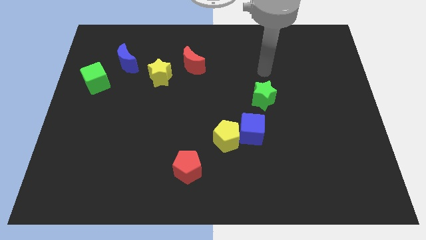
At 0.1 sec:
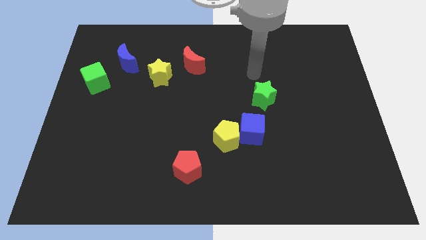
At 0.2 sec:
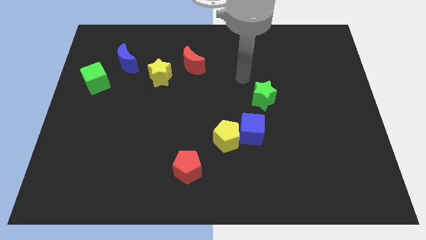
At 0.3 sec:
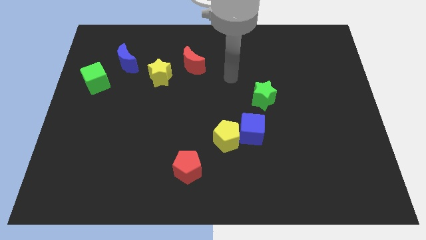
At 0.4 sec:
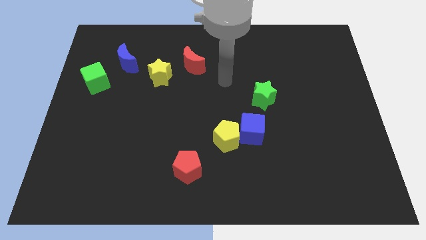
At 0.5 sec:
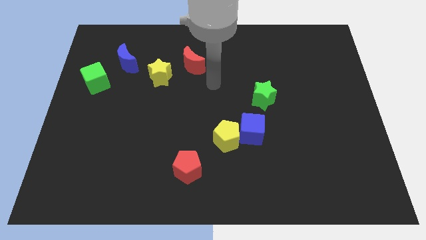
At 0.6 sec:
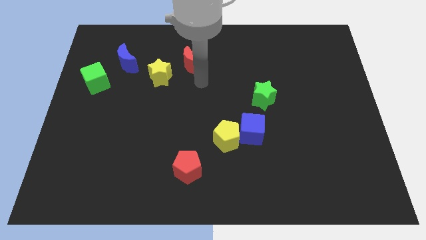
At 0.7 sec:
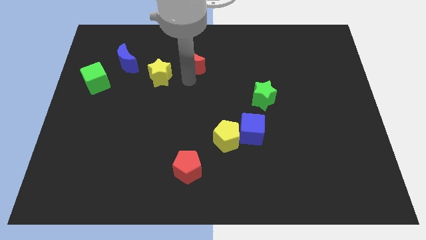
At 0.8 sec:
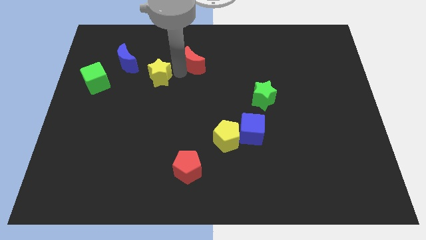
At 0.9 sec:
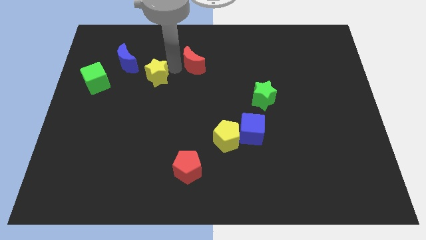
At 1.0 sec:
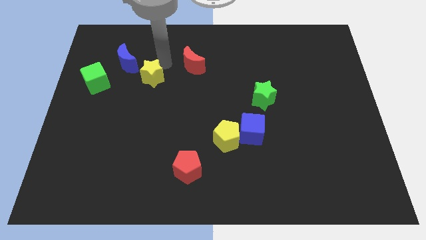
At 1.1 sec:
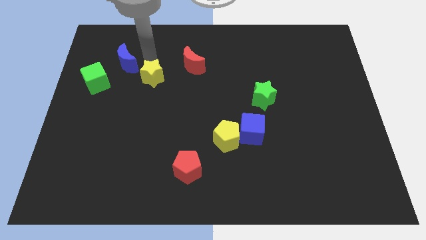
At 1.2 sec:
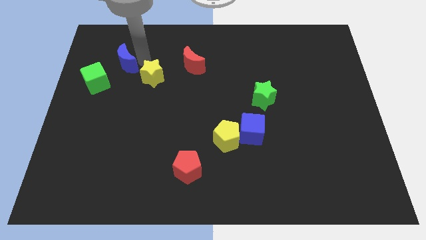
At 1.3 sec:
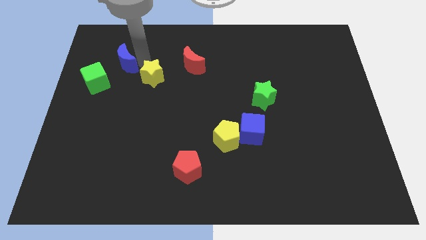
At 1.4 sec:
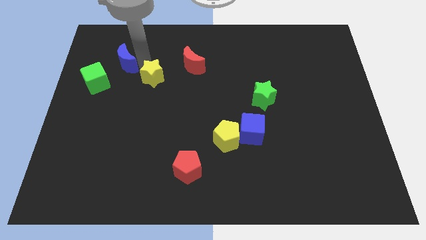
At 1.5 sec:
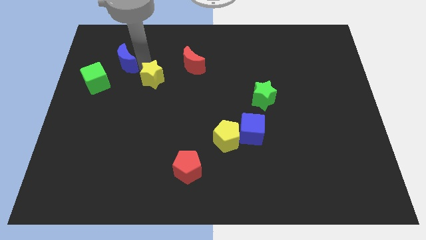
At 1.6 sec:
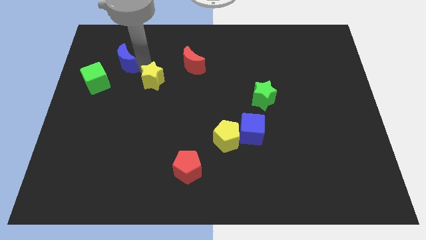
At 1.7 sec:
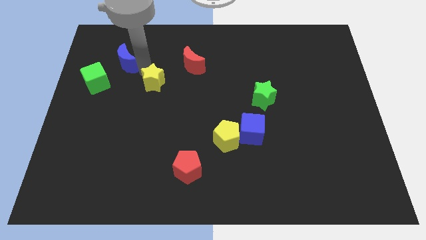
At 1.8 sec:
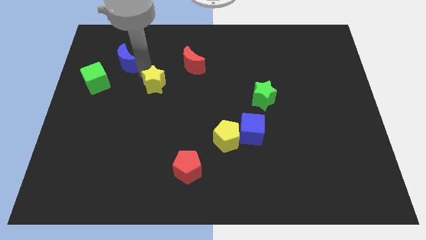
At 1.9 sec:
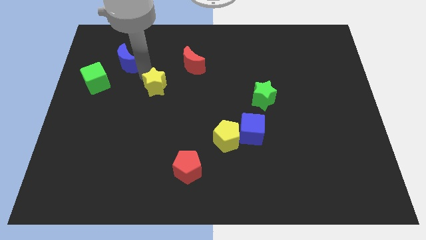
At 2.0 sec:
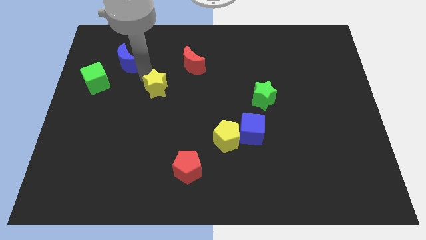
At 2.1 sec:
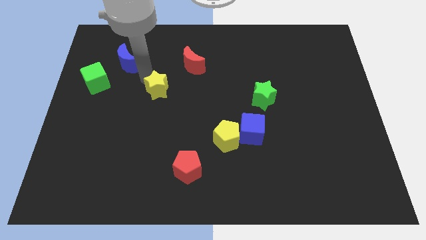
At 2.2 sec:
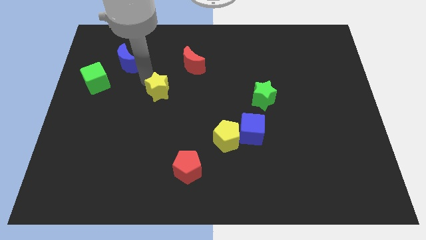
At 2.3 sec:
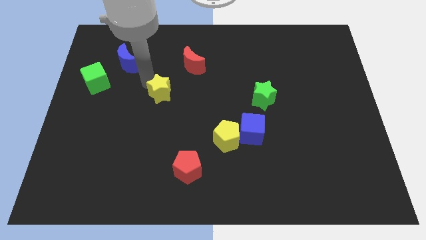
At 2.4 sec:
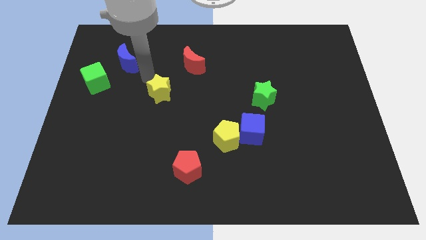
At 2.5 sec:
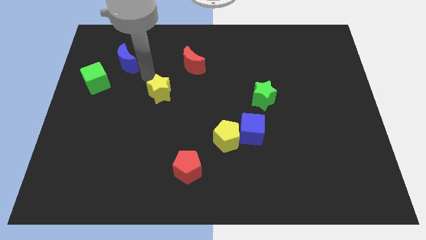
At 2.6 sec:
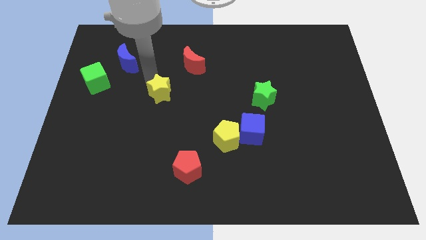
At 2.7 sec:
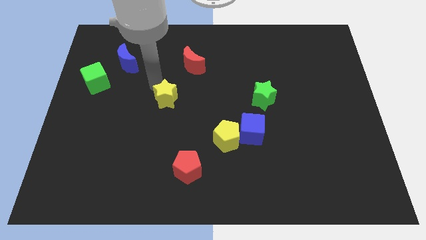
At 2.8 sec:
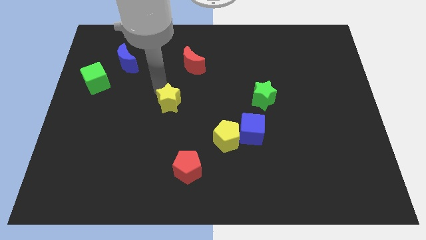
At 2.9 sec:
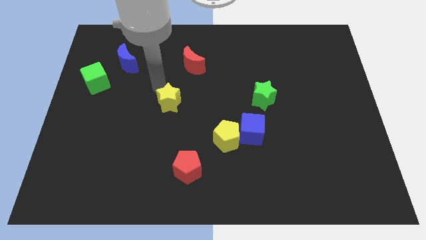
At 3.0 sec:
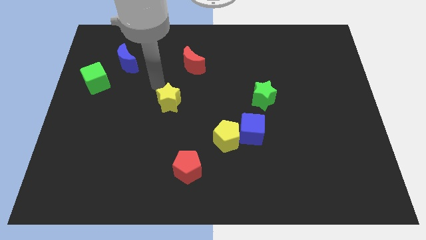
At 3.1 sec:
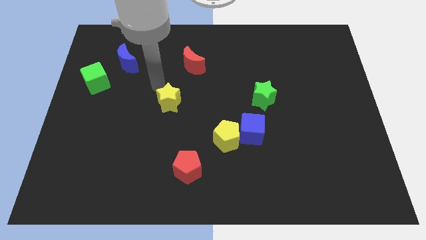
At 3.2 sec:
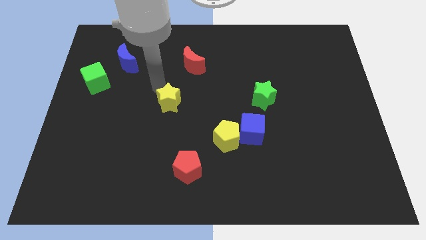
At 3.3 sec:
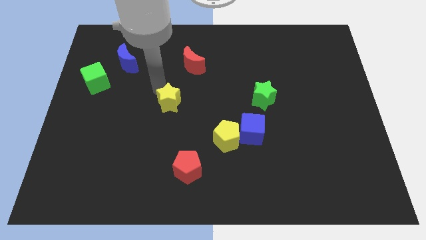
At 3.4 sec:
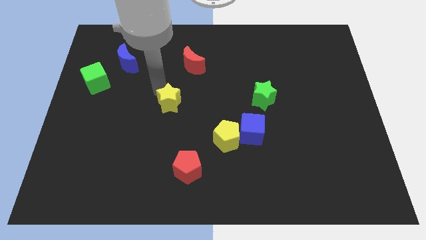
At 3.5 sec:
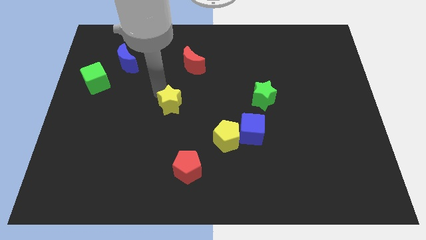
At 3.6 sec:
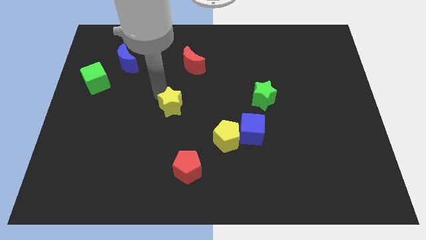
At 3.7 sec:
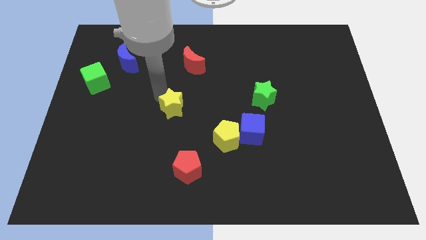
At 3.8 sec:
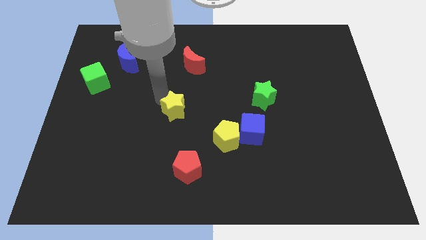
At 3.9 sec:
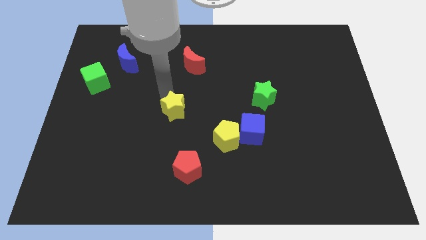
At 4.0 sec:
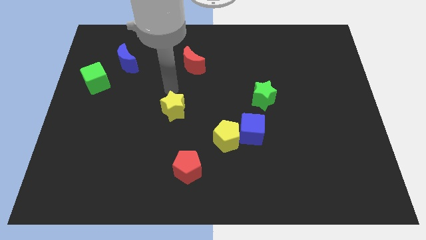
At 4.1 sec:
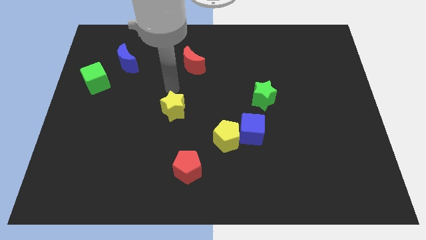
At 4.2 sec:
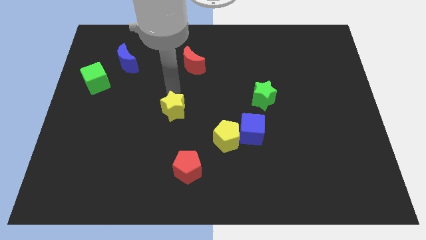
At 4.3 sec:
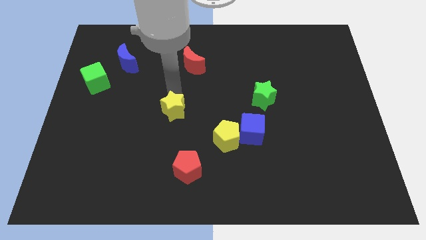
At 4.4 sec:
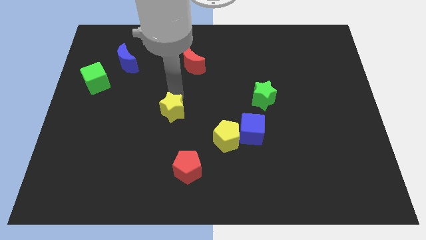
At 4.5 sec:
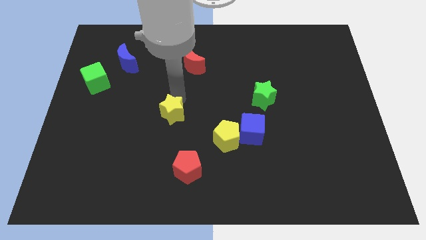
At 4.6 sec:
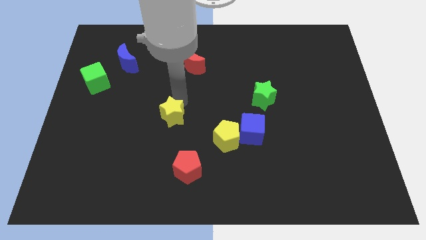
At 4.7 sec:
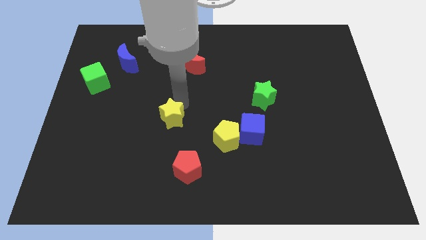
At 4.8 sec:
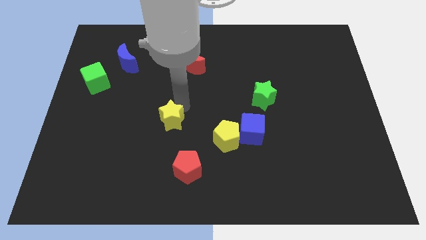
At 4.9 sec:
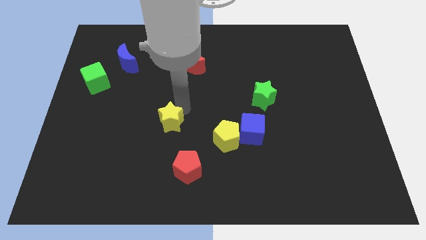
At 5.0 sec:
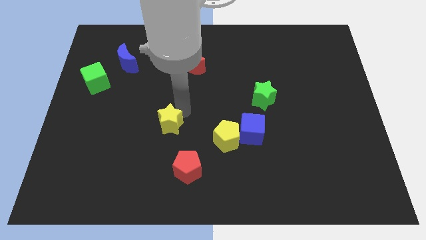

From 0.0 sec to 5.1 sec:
slide the yellow star just left of the yellow pentagon

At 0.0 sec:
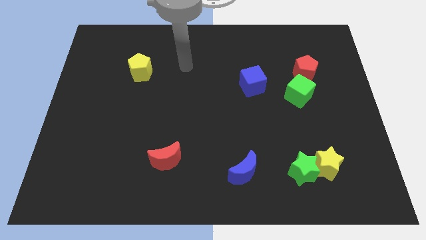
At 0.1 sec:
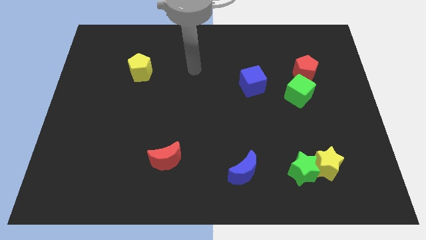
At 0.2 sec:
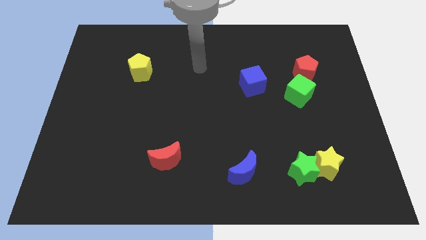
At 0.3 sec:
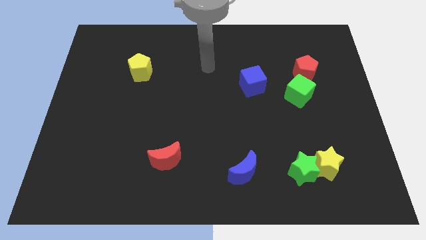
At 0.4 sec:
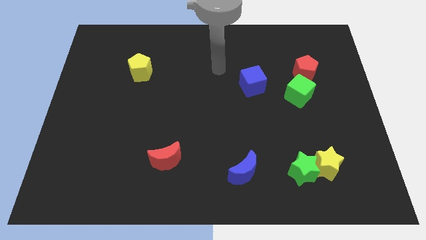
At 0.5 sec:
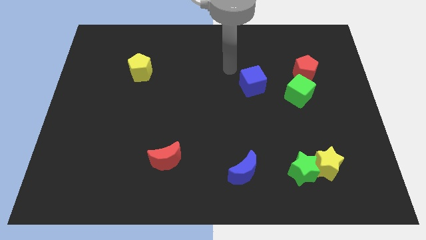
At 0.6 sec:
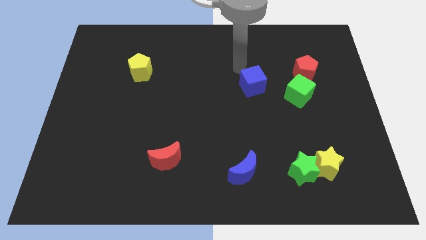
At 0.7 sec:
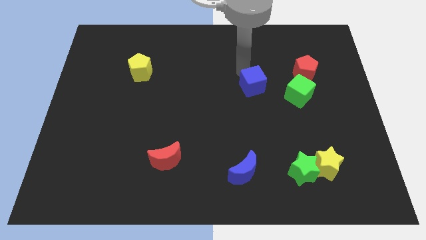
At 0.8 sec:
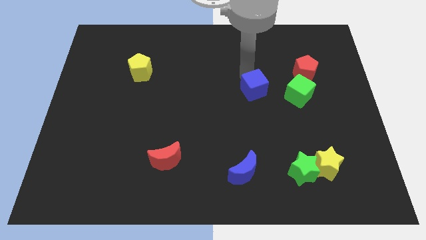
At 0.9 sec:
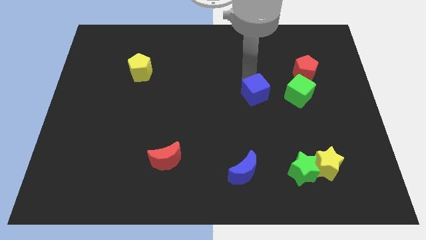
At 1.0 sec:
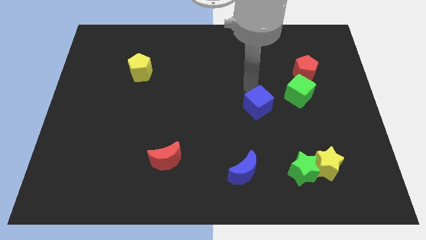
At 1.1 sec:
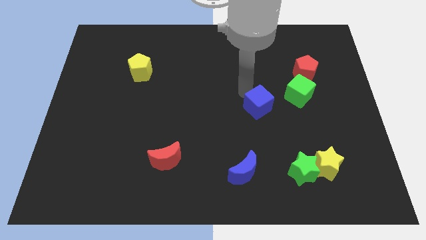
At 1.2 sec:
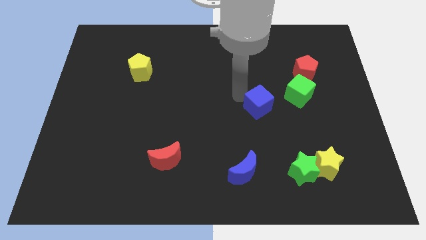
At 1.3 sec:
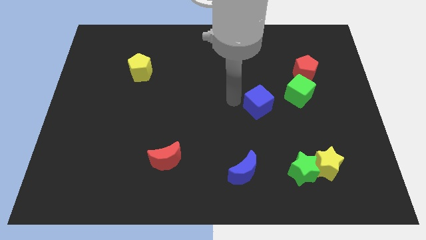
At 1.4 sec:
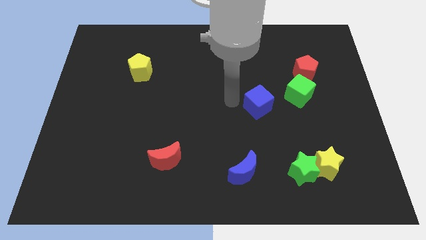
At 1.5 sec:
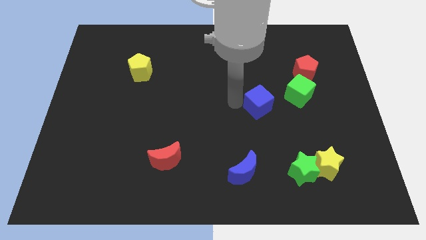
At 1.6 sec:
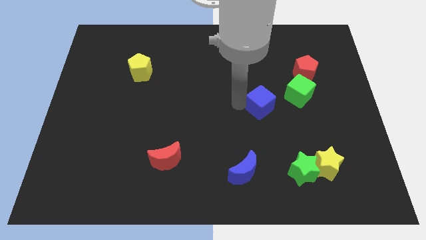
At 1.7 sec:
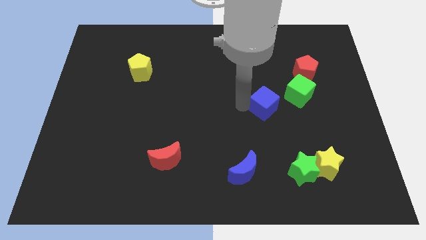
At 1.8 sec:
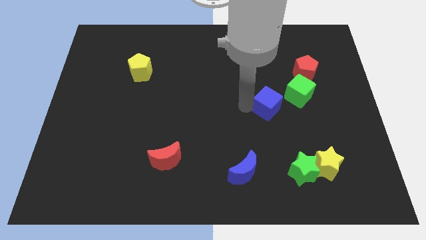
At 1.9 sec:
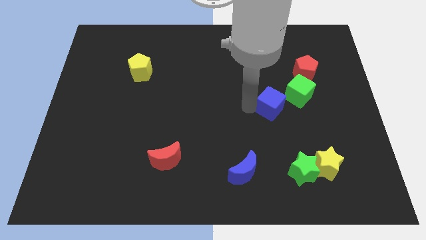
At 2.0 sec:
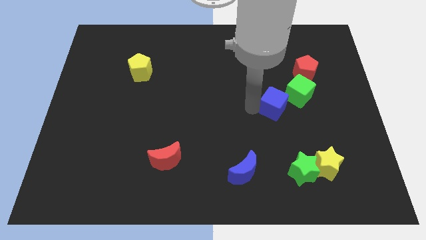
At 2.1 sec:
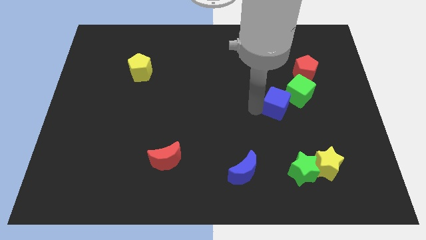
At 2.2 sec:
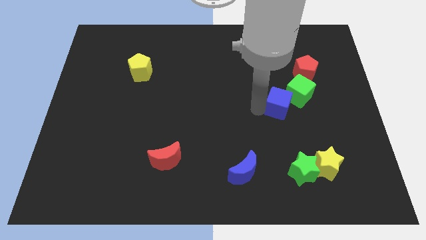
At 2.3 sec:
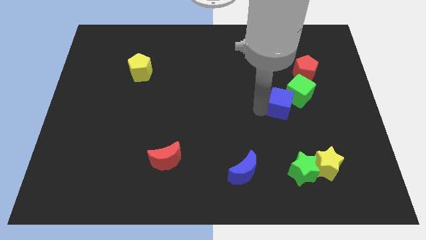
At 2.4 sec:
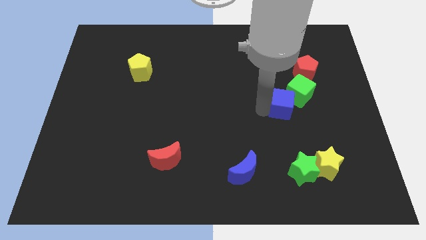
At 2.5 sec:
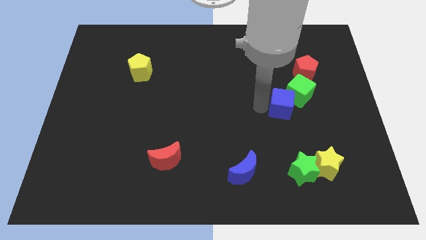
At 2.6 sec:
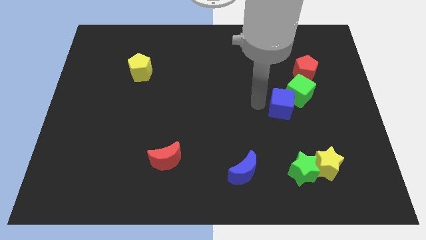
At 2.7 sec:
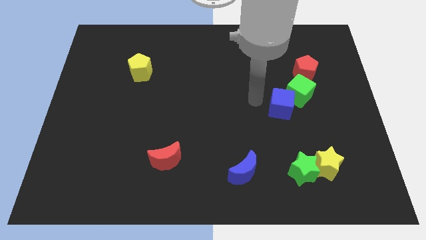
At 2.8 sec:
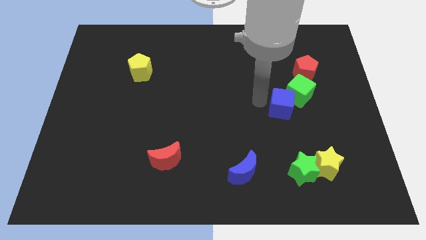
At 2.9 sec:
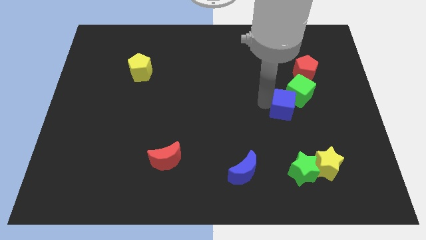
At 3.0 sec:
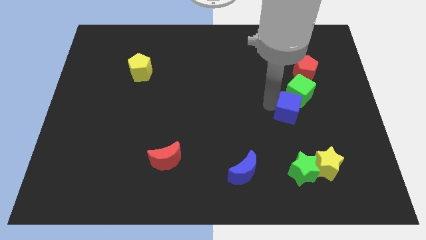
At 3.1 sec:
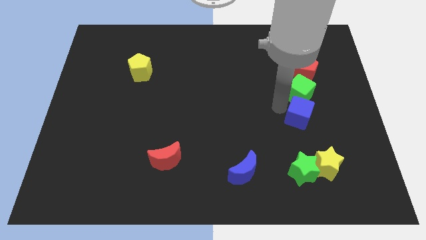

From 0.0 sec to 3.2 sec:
put the blue cube to the top of the yellow star

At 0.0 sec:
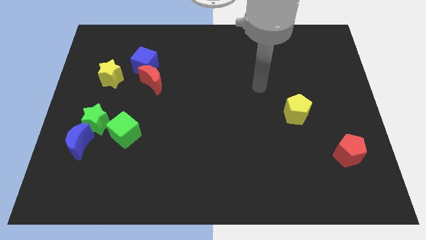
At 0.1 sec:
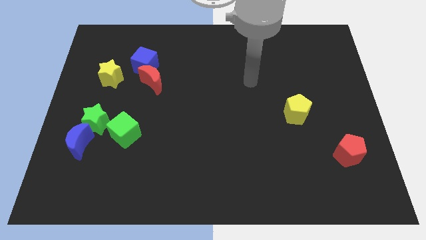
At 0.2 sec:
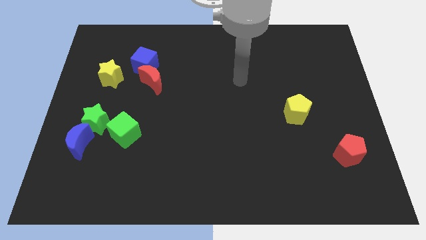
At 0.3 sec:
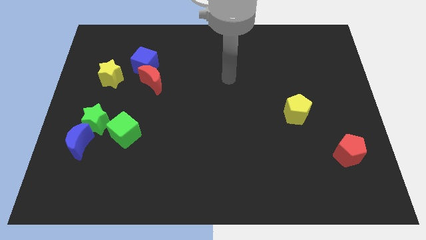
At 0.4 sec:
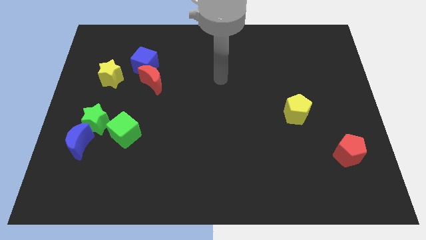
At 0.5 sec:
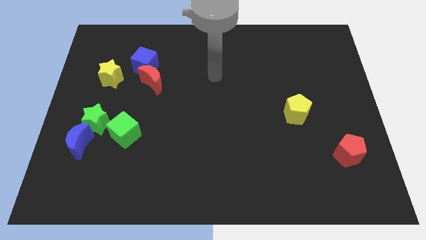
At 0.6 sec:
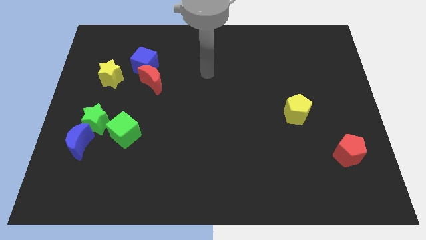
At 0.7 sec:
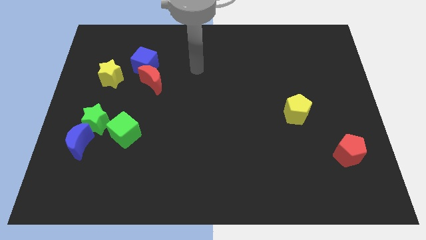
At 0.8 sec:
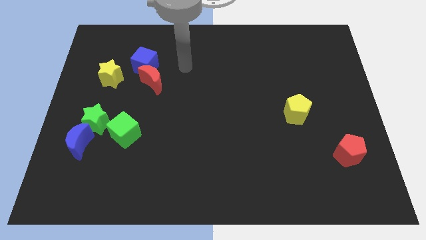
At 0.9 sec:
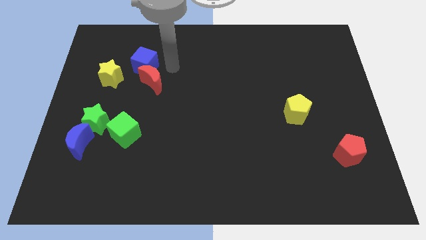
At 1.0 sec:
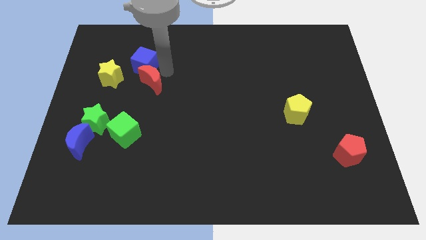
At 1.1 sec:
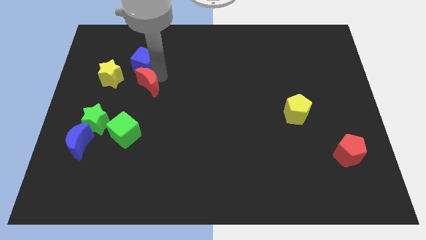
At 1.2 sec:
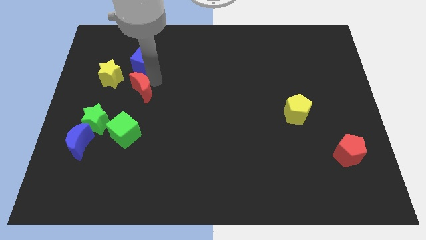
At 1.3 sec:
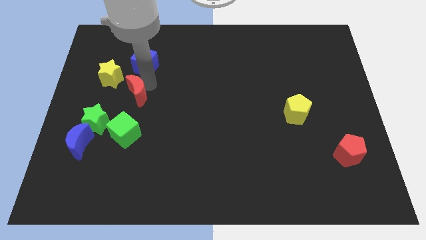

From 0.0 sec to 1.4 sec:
slide the red moon diagonally up and to the right of the green star
